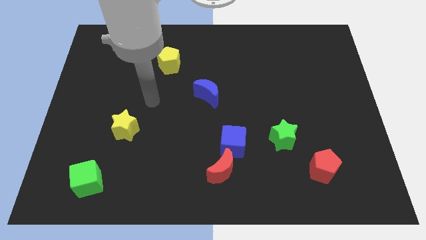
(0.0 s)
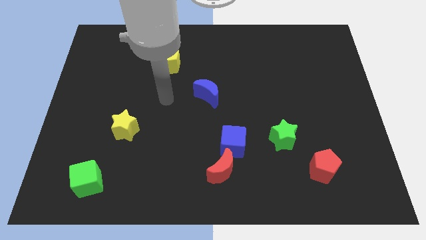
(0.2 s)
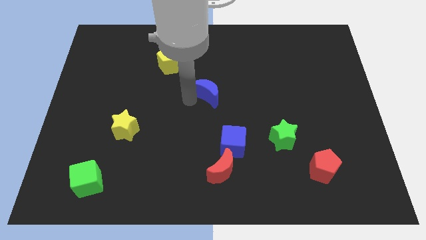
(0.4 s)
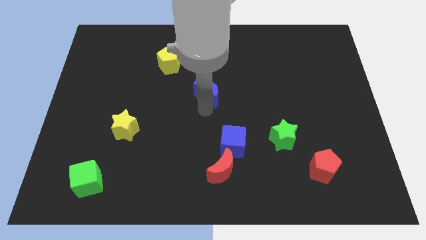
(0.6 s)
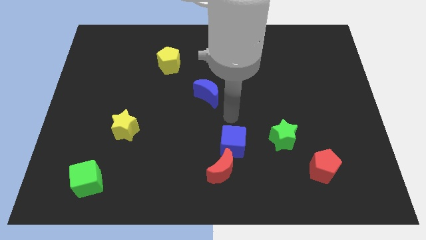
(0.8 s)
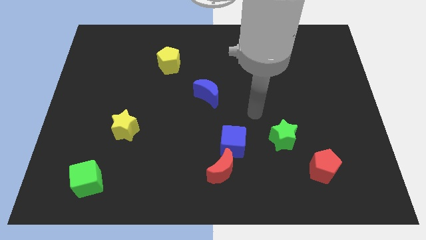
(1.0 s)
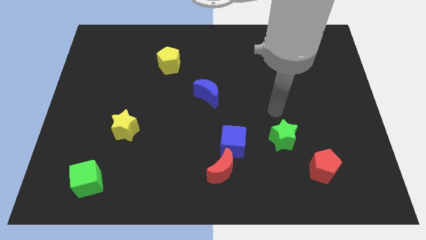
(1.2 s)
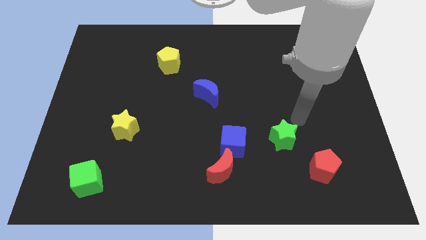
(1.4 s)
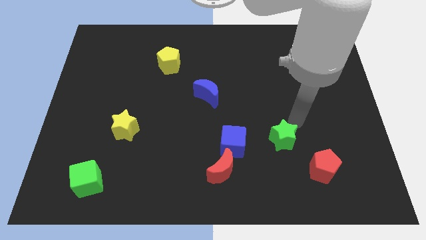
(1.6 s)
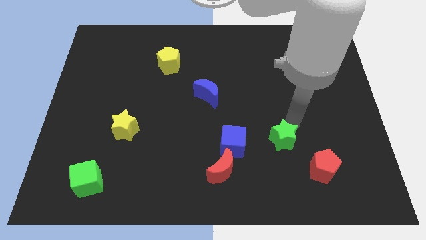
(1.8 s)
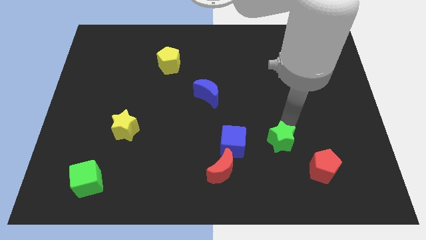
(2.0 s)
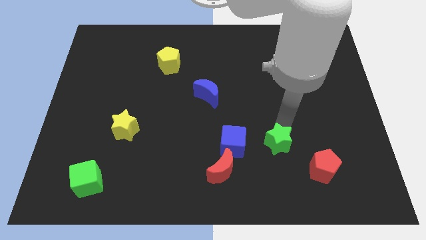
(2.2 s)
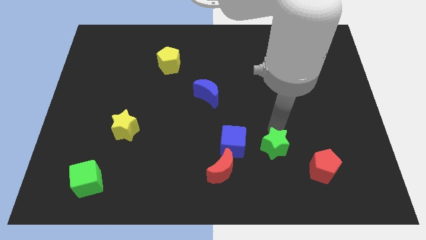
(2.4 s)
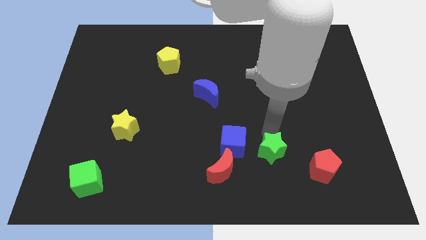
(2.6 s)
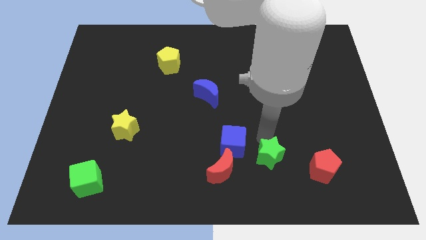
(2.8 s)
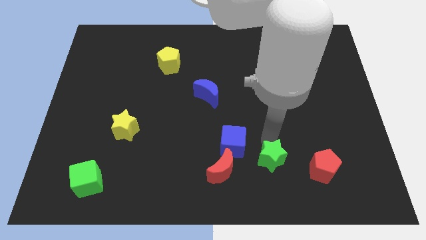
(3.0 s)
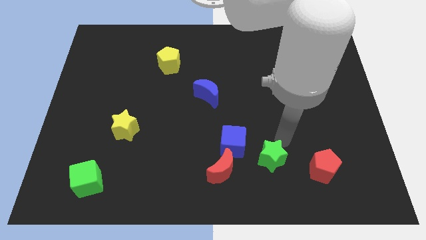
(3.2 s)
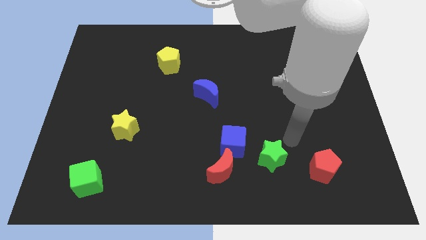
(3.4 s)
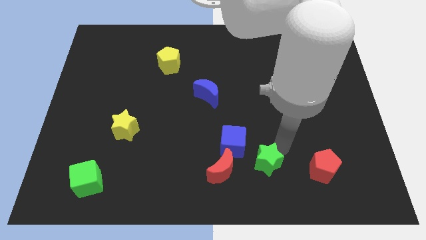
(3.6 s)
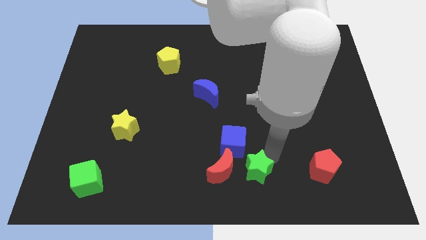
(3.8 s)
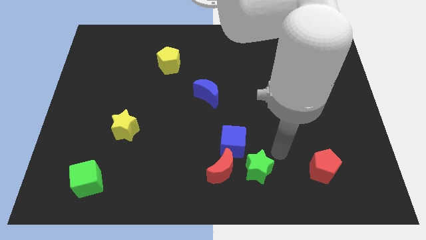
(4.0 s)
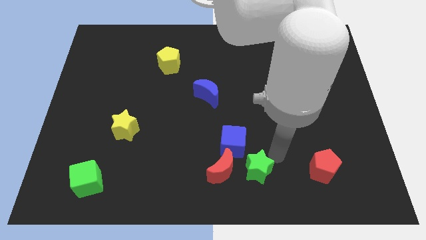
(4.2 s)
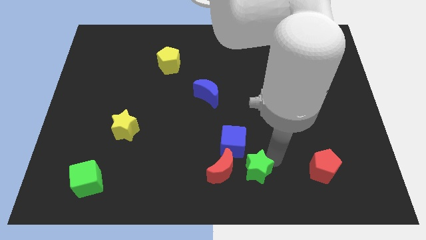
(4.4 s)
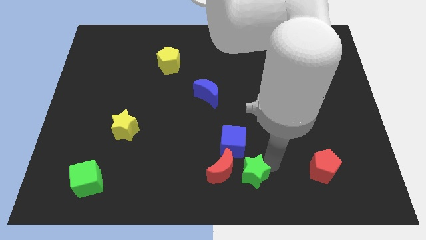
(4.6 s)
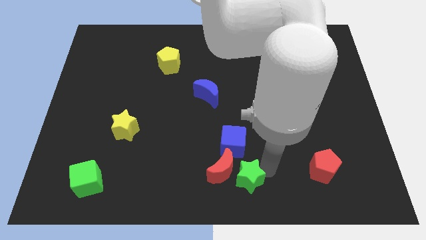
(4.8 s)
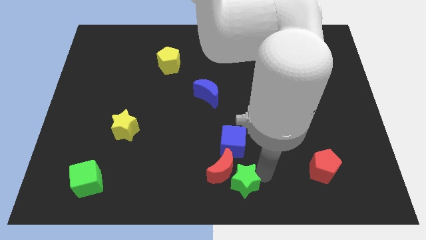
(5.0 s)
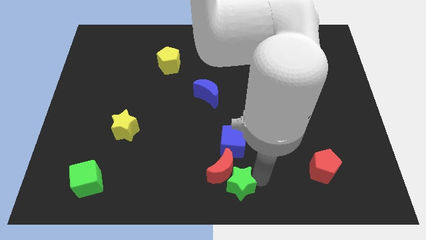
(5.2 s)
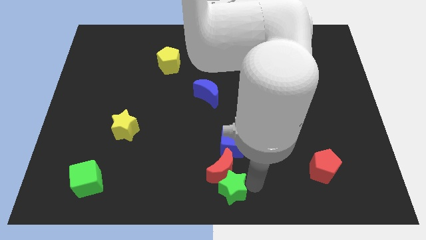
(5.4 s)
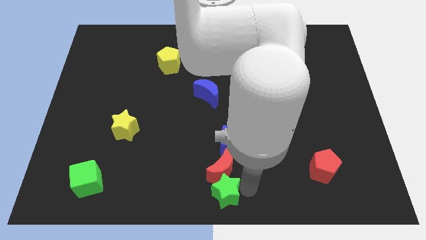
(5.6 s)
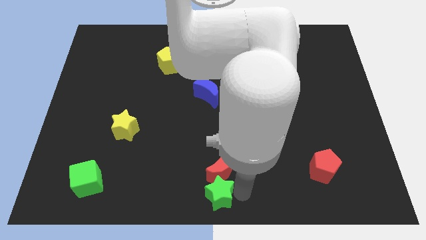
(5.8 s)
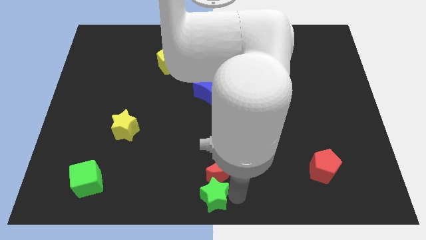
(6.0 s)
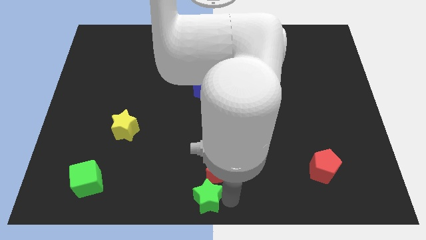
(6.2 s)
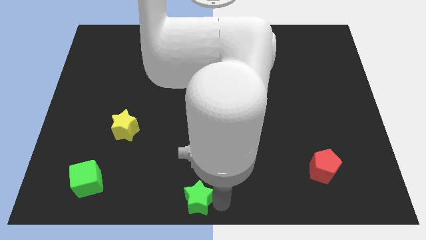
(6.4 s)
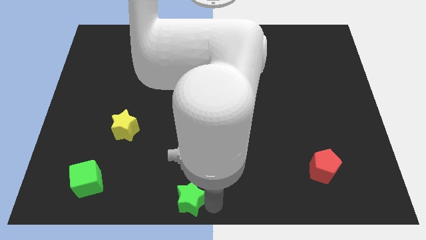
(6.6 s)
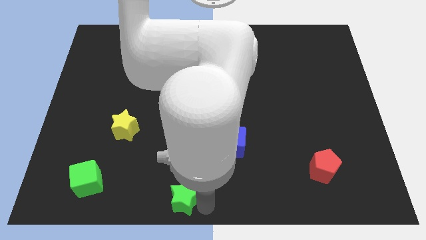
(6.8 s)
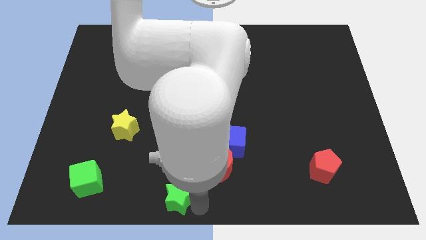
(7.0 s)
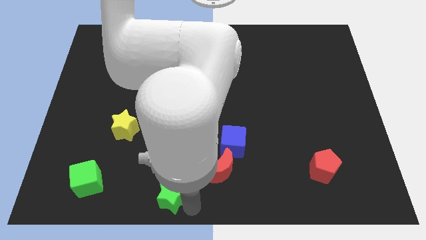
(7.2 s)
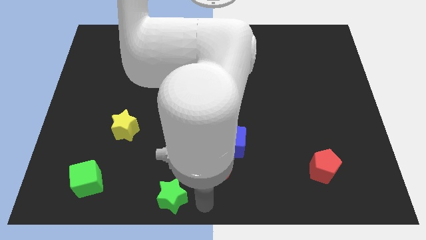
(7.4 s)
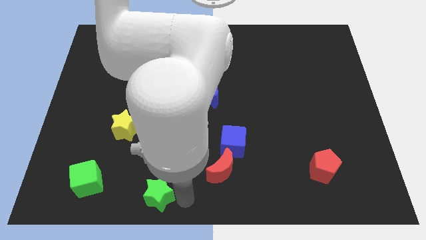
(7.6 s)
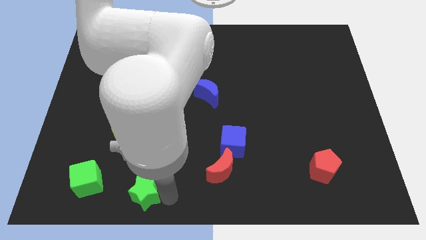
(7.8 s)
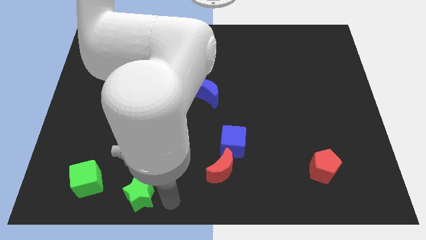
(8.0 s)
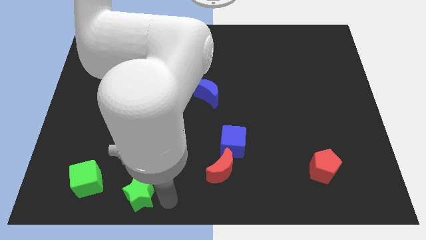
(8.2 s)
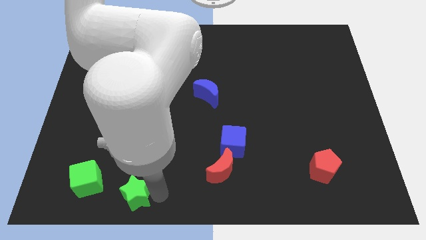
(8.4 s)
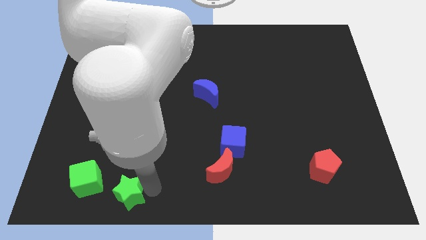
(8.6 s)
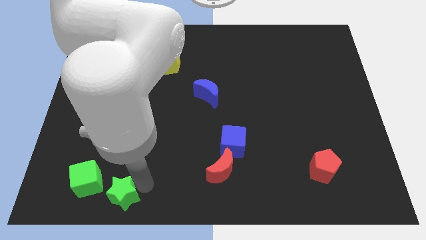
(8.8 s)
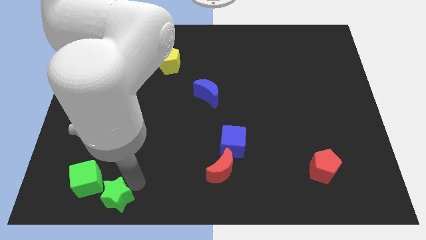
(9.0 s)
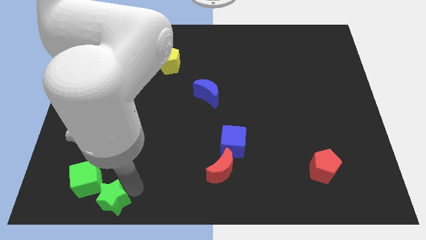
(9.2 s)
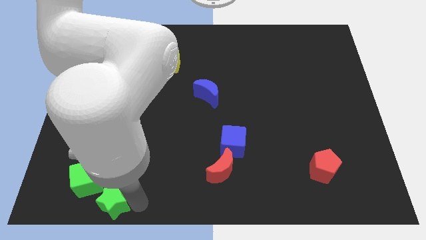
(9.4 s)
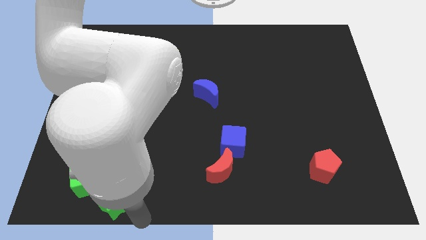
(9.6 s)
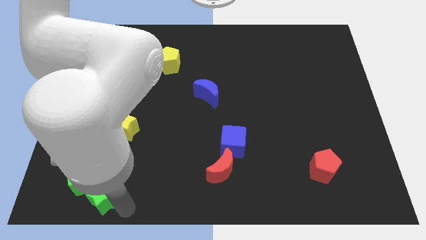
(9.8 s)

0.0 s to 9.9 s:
push the green star towards the green cube

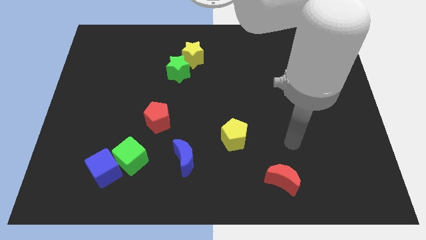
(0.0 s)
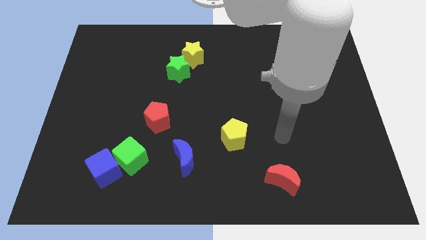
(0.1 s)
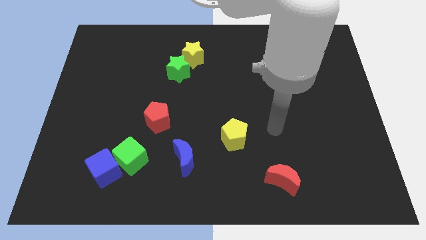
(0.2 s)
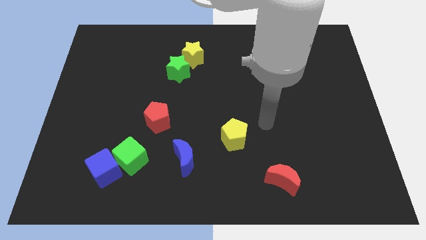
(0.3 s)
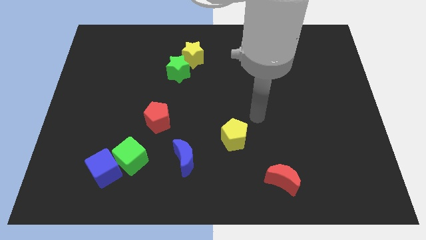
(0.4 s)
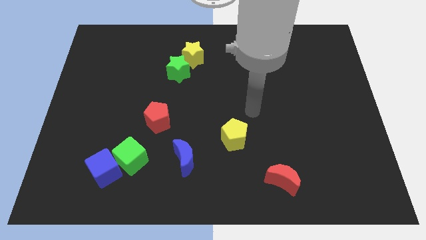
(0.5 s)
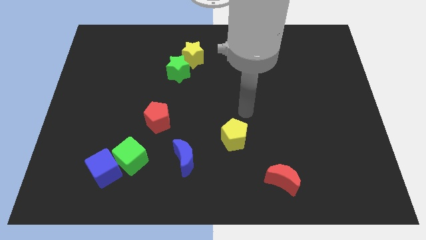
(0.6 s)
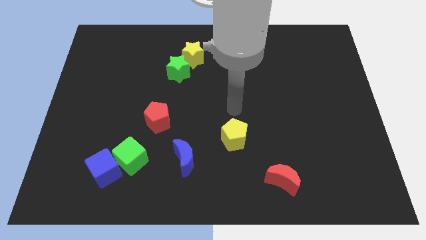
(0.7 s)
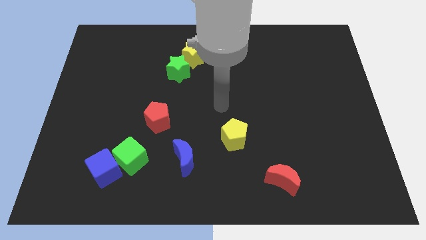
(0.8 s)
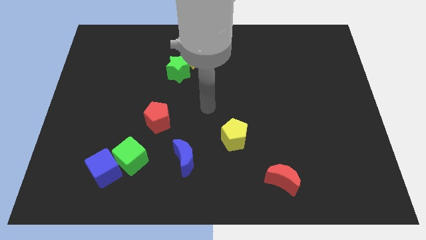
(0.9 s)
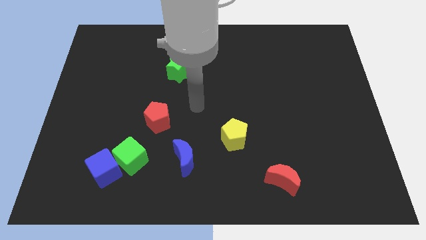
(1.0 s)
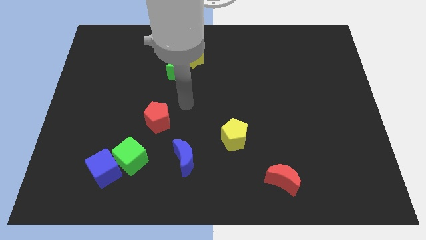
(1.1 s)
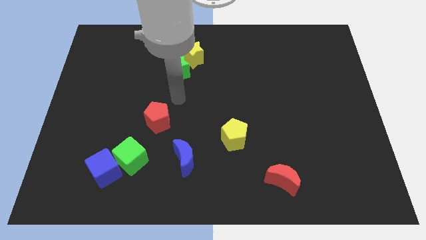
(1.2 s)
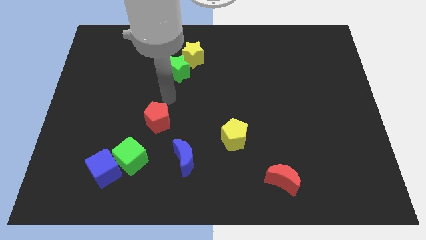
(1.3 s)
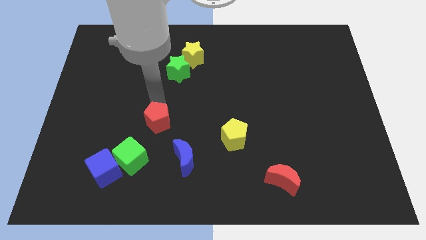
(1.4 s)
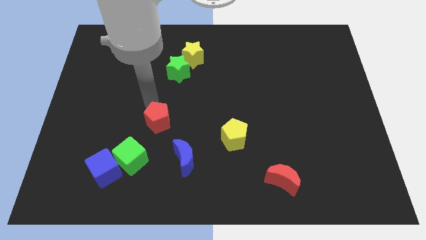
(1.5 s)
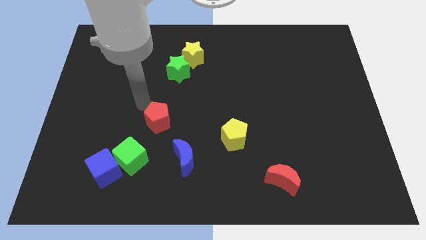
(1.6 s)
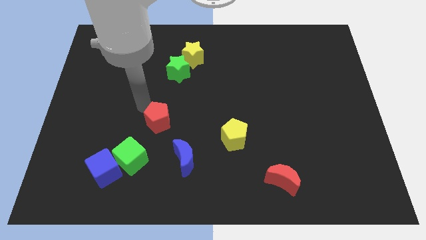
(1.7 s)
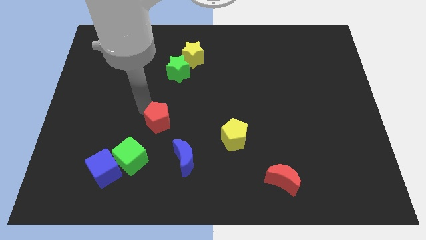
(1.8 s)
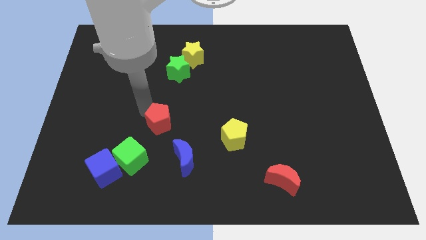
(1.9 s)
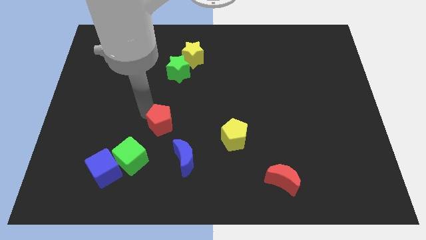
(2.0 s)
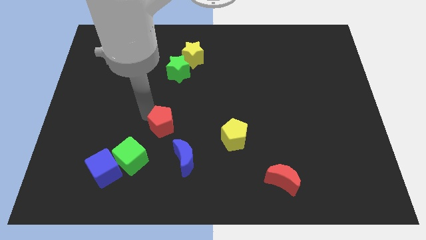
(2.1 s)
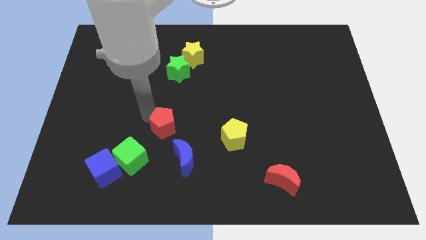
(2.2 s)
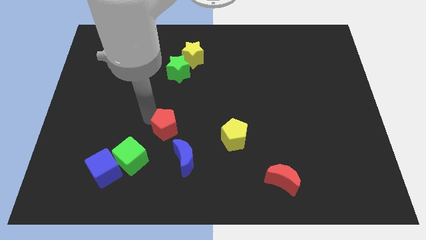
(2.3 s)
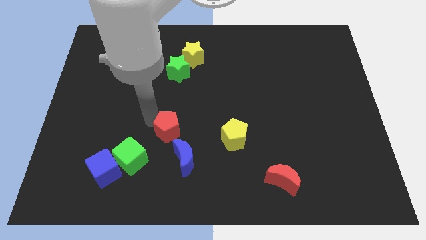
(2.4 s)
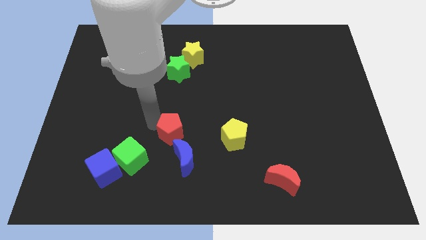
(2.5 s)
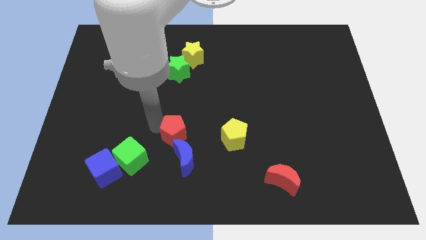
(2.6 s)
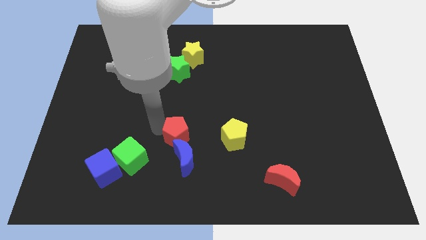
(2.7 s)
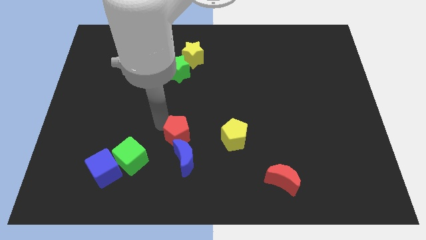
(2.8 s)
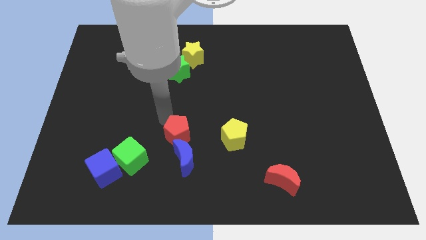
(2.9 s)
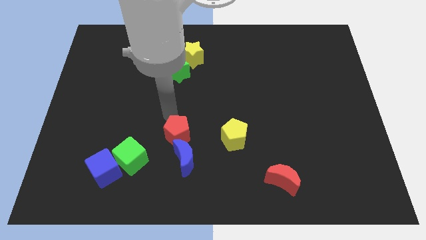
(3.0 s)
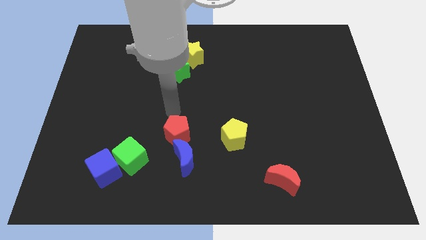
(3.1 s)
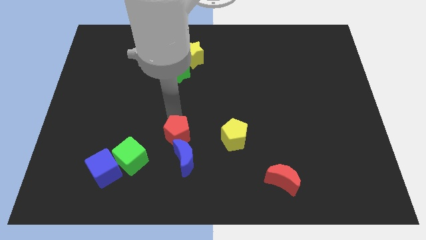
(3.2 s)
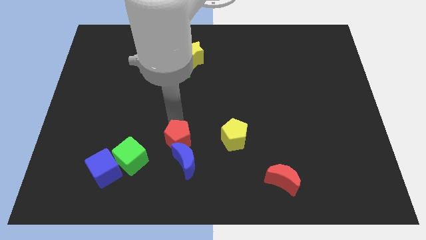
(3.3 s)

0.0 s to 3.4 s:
move the red pentagon next to the blue moon
